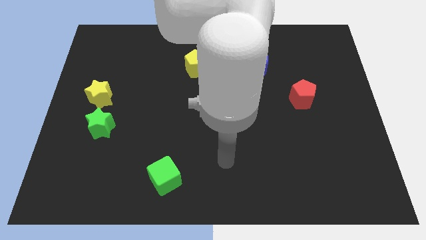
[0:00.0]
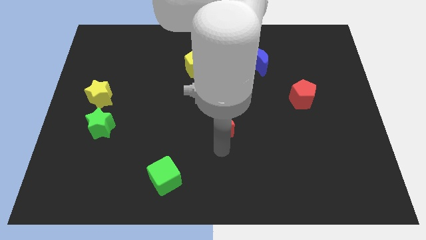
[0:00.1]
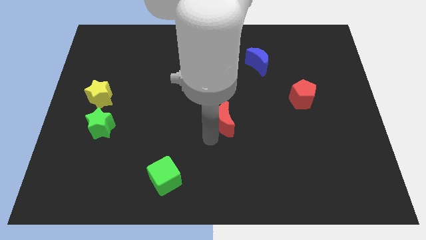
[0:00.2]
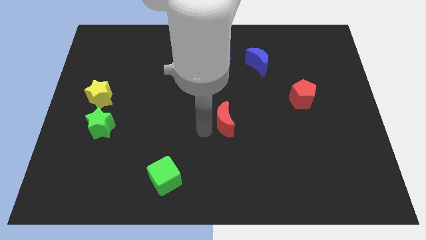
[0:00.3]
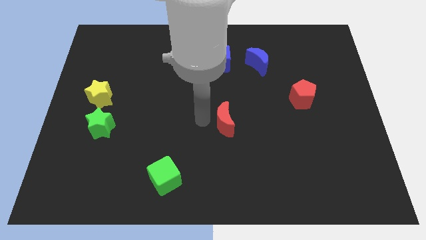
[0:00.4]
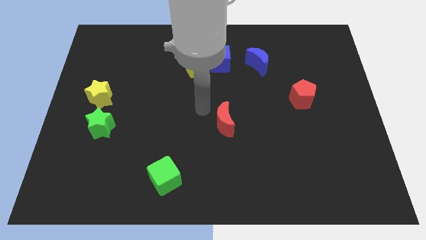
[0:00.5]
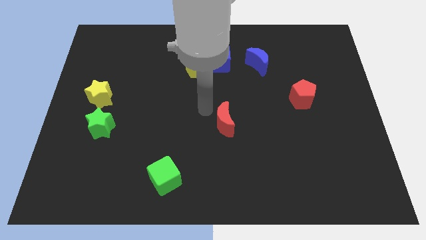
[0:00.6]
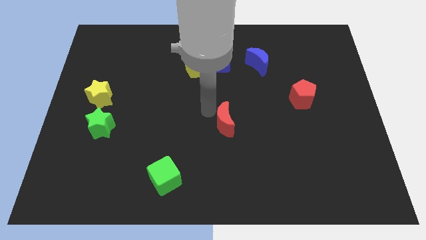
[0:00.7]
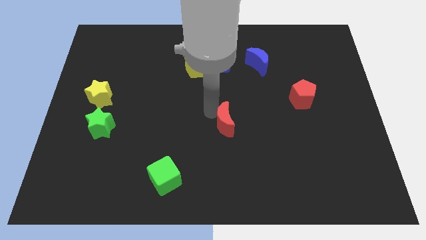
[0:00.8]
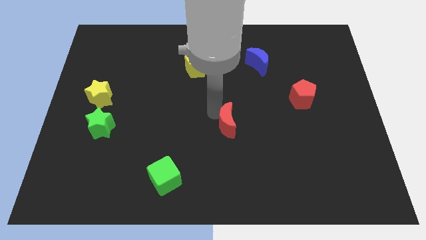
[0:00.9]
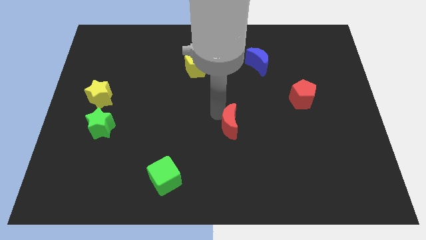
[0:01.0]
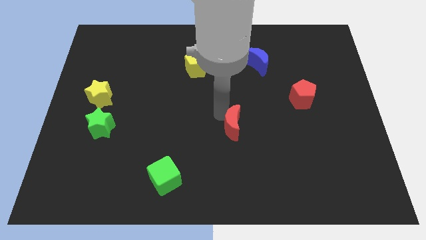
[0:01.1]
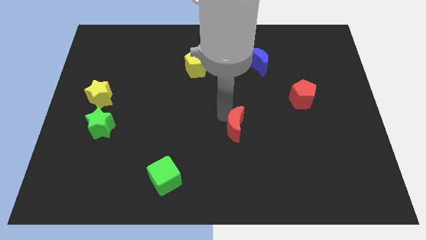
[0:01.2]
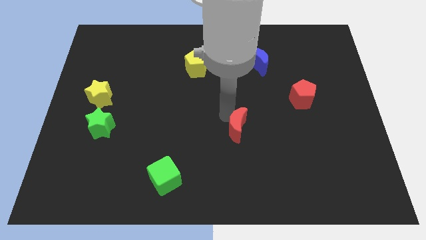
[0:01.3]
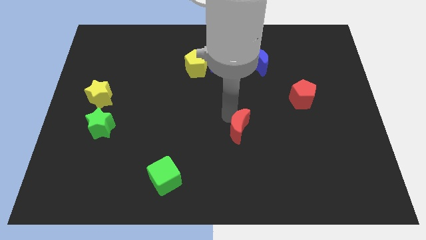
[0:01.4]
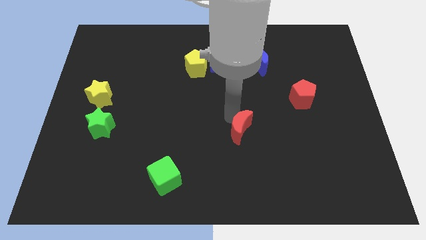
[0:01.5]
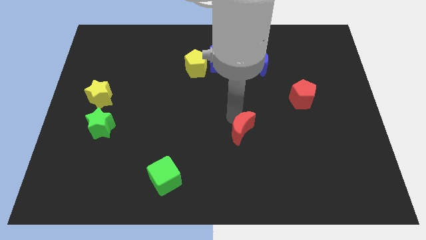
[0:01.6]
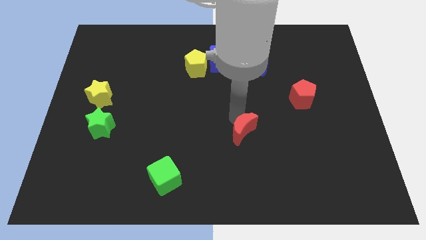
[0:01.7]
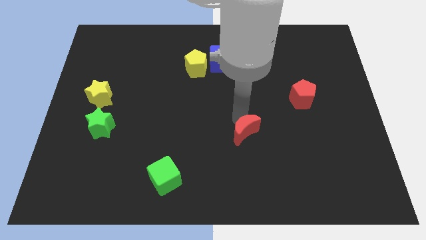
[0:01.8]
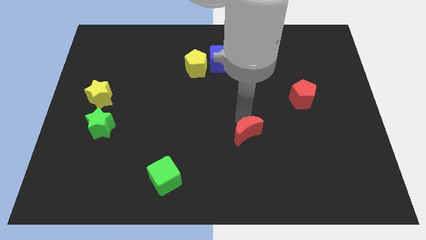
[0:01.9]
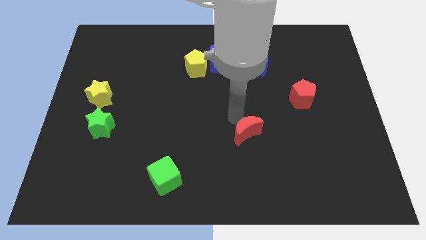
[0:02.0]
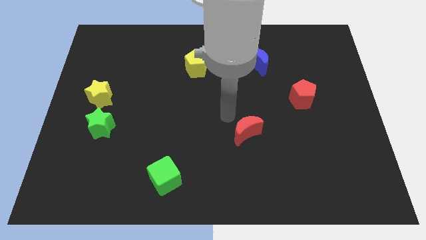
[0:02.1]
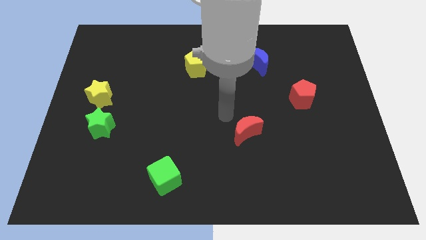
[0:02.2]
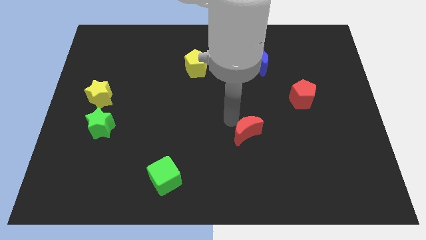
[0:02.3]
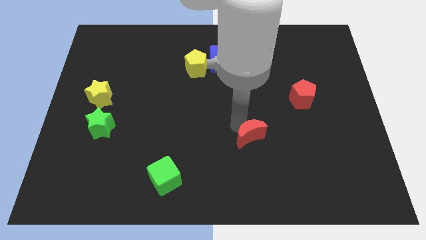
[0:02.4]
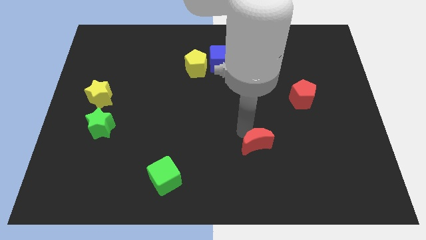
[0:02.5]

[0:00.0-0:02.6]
push the red moon diagonally downwards and to the right somewhat

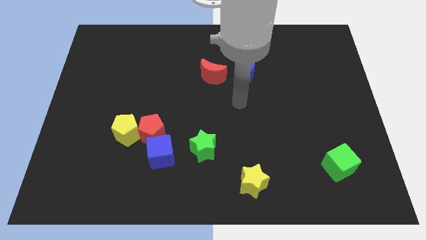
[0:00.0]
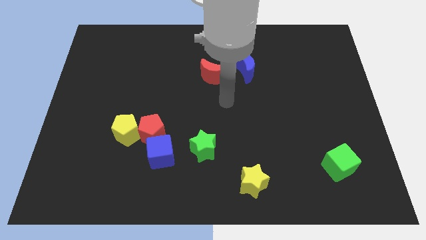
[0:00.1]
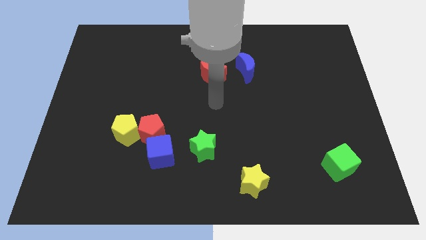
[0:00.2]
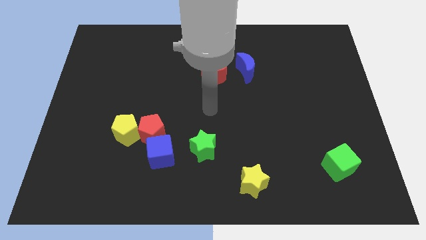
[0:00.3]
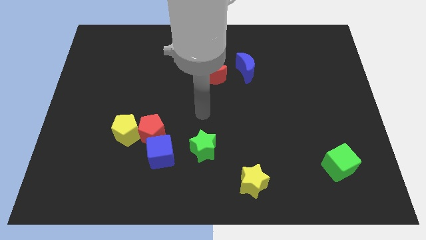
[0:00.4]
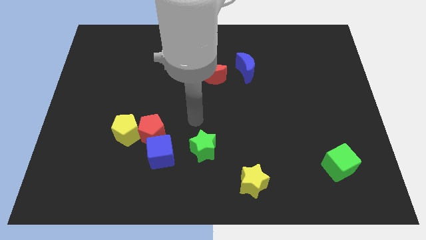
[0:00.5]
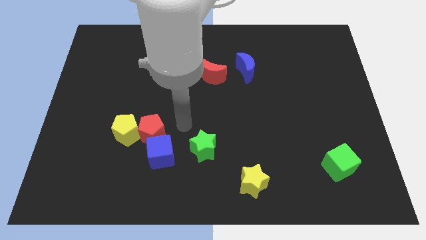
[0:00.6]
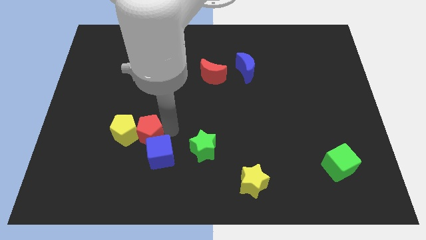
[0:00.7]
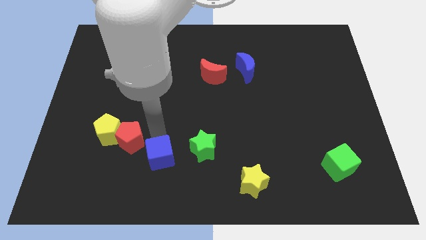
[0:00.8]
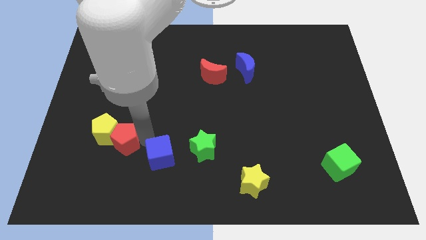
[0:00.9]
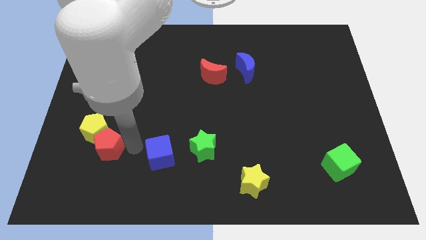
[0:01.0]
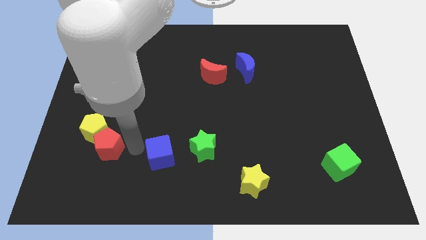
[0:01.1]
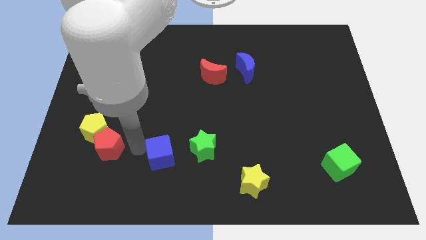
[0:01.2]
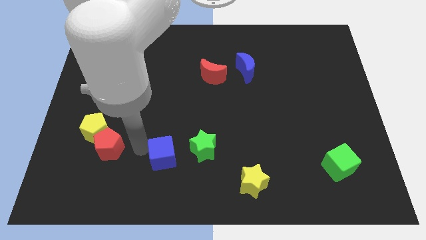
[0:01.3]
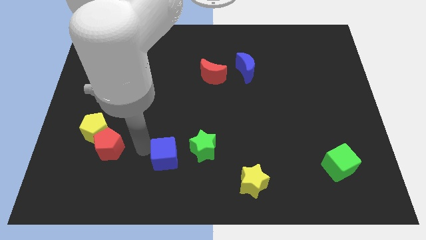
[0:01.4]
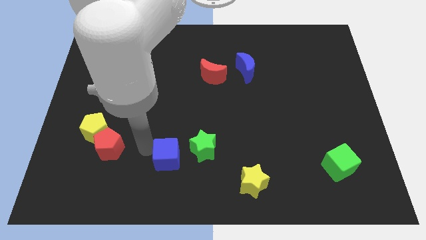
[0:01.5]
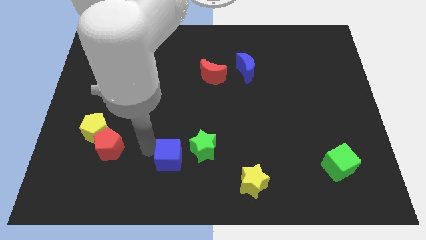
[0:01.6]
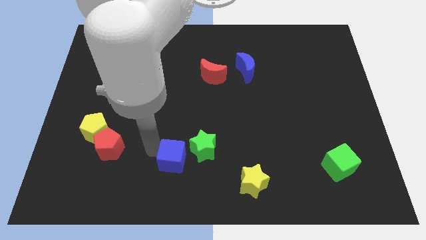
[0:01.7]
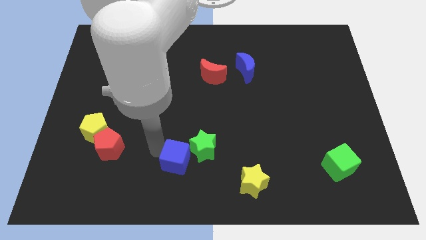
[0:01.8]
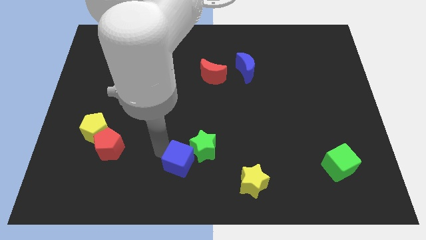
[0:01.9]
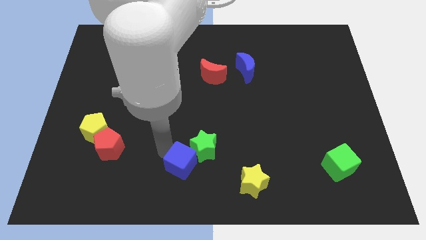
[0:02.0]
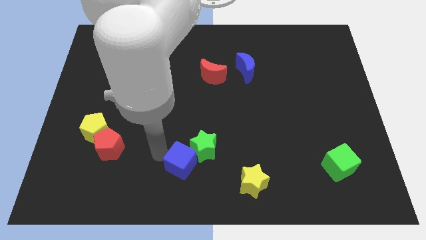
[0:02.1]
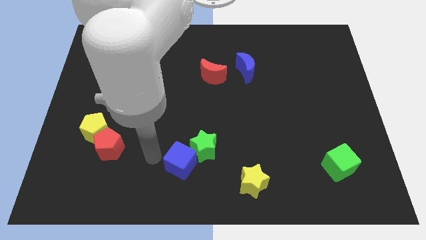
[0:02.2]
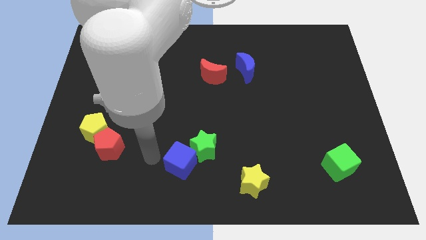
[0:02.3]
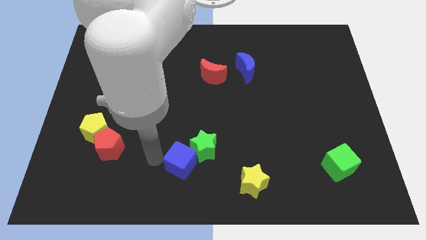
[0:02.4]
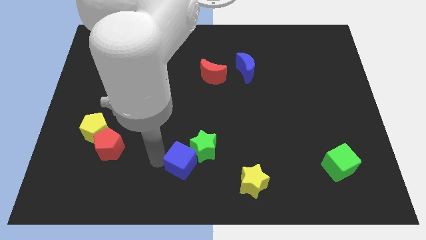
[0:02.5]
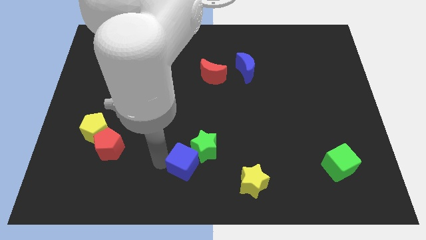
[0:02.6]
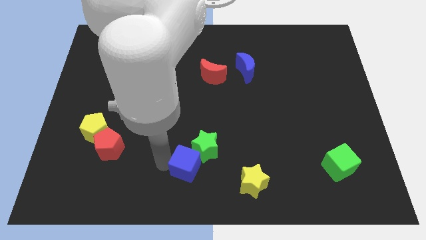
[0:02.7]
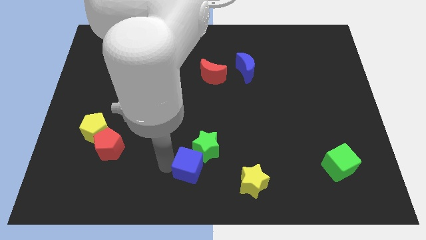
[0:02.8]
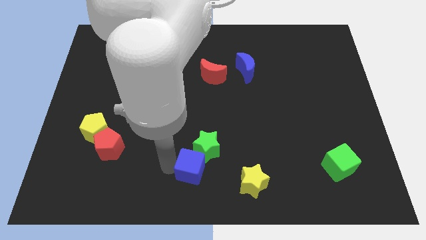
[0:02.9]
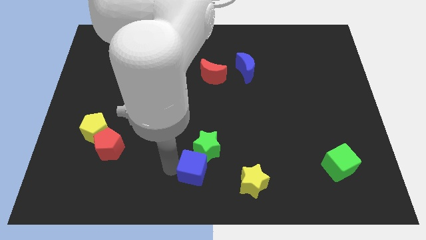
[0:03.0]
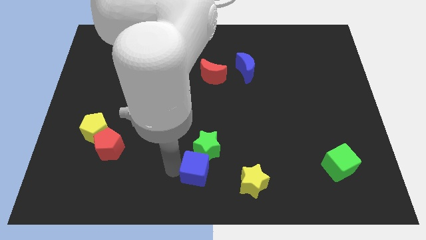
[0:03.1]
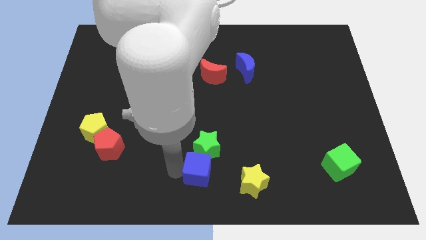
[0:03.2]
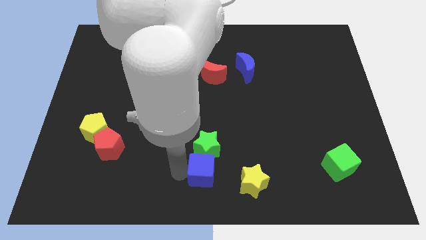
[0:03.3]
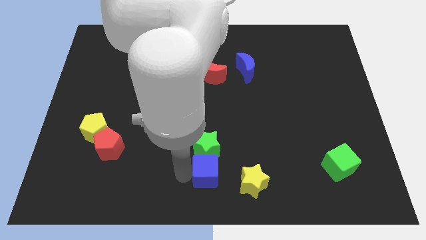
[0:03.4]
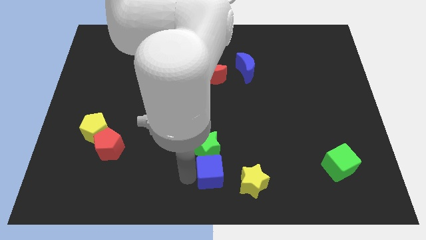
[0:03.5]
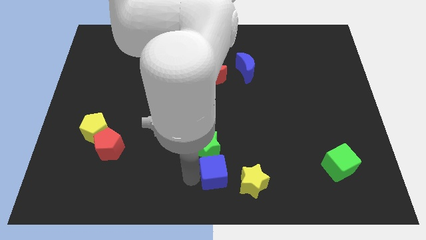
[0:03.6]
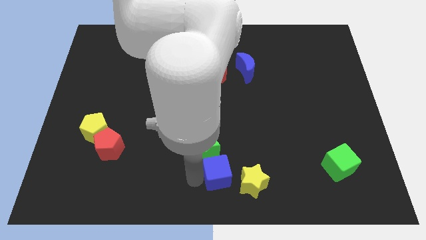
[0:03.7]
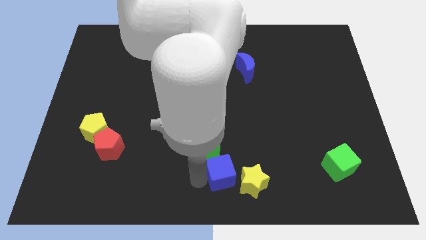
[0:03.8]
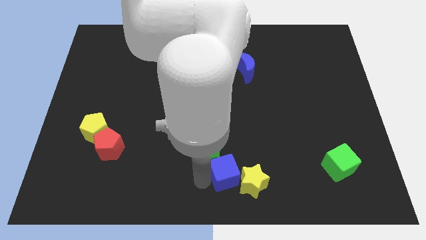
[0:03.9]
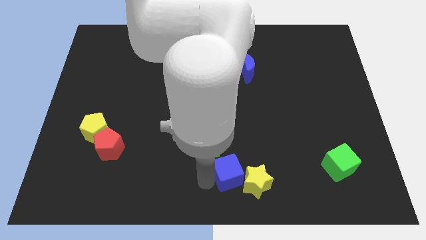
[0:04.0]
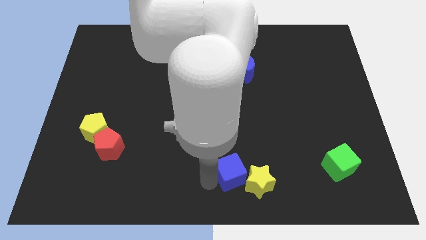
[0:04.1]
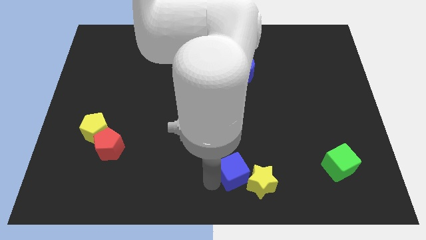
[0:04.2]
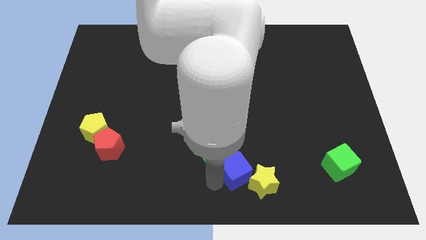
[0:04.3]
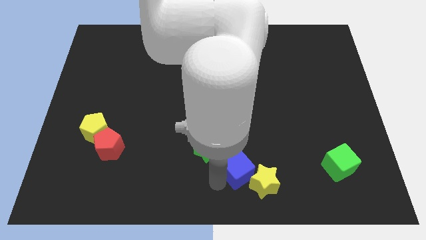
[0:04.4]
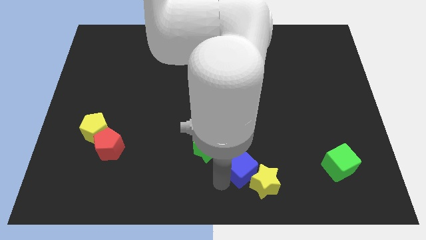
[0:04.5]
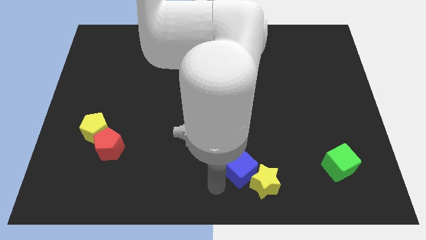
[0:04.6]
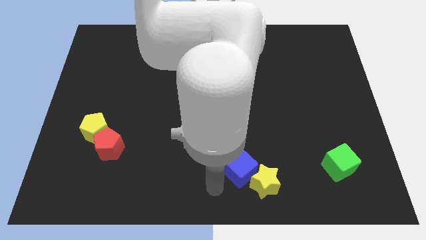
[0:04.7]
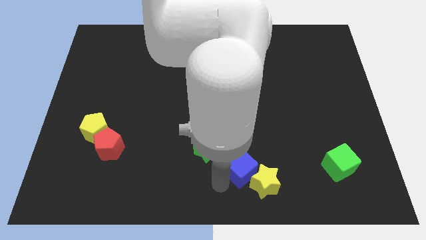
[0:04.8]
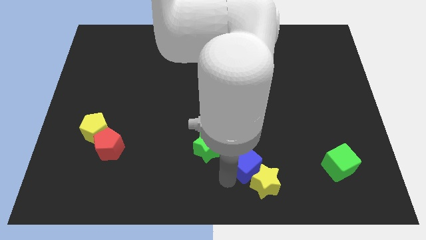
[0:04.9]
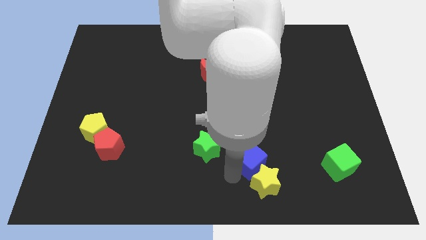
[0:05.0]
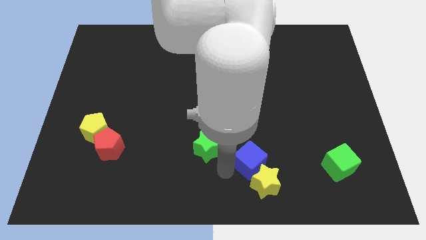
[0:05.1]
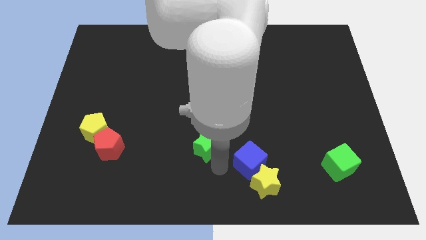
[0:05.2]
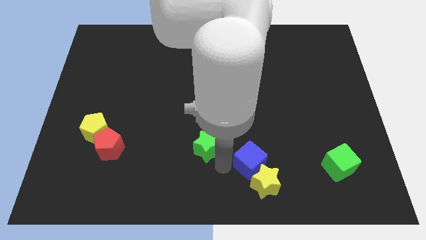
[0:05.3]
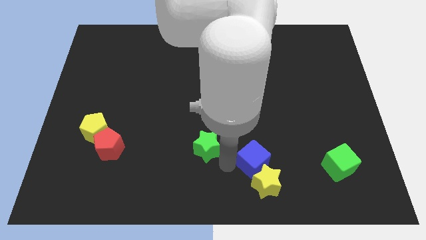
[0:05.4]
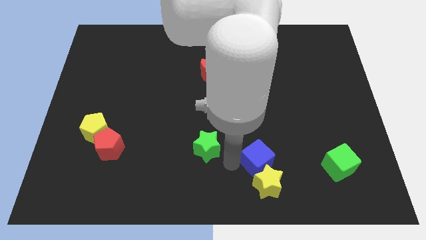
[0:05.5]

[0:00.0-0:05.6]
slide the blue cube to the right
